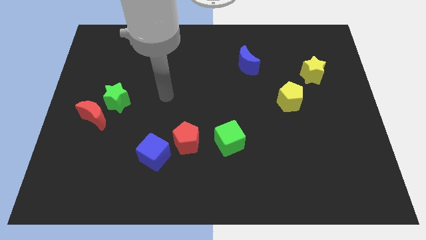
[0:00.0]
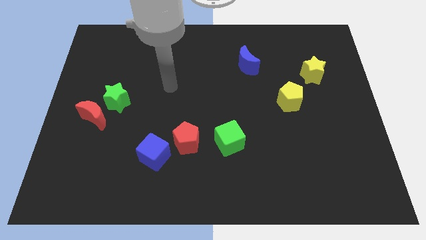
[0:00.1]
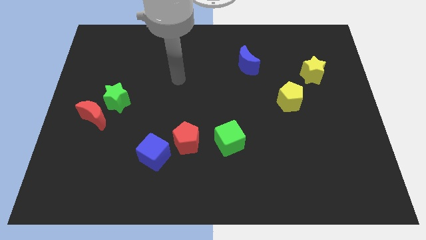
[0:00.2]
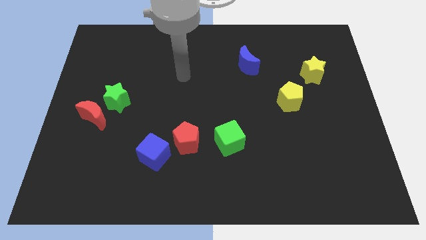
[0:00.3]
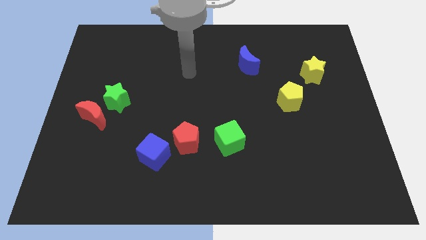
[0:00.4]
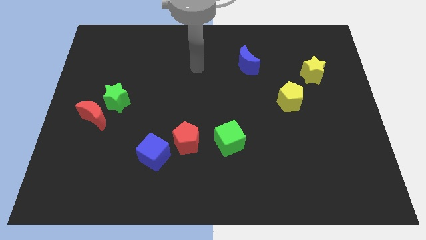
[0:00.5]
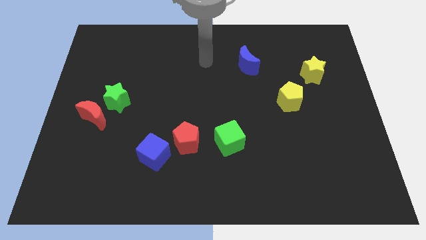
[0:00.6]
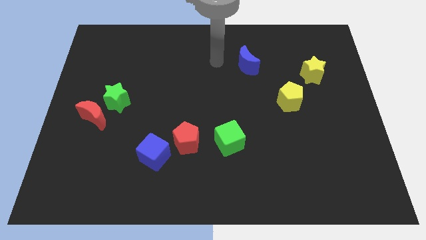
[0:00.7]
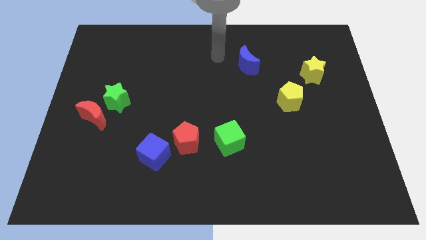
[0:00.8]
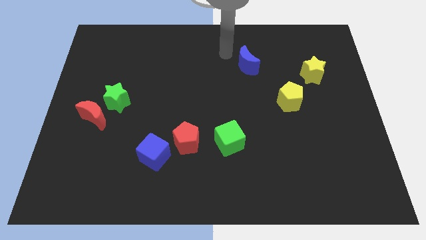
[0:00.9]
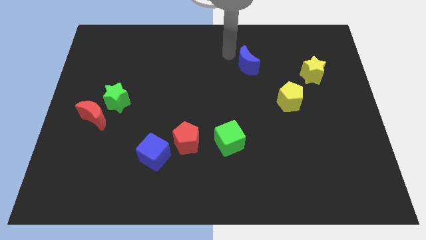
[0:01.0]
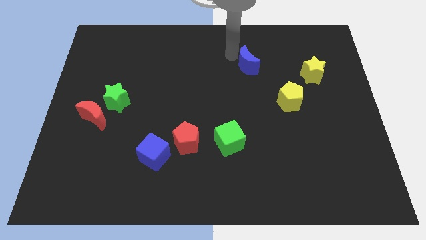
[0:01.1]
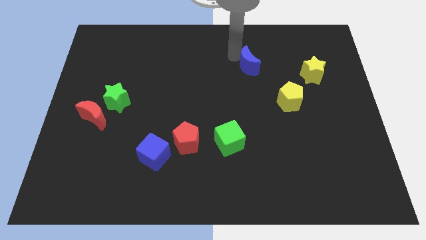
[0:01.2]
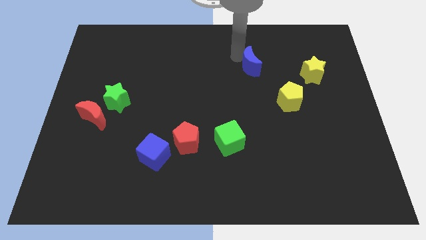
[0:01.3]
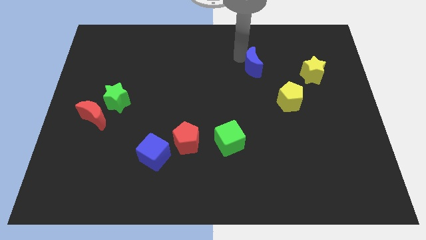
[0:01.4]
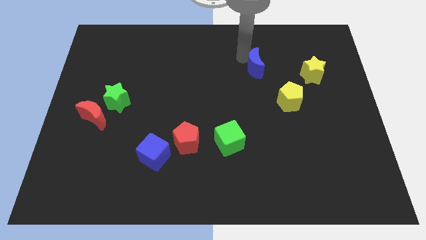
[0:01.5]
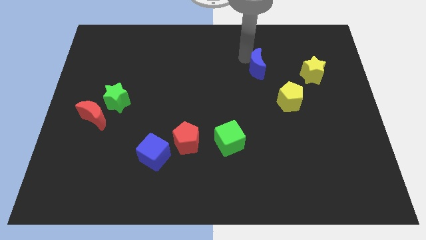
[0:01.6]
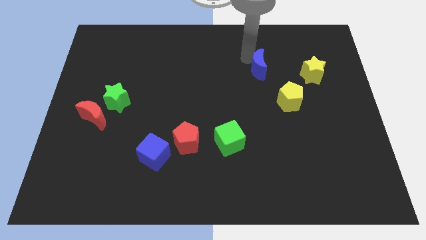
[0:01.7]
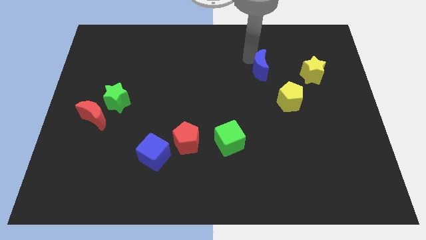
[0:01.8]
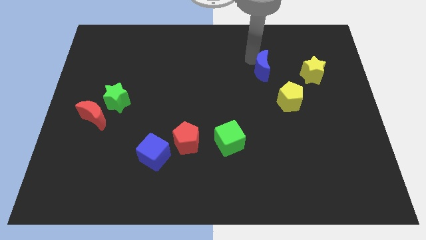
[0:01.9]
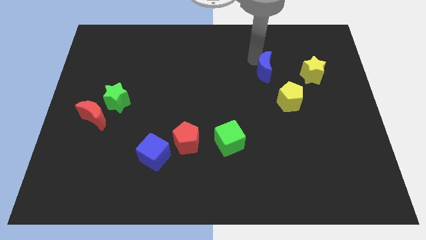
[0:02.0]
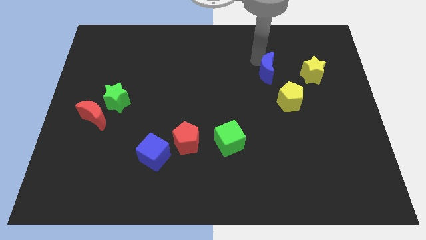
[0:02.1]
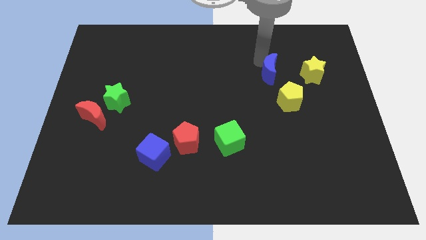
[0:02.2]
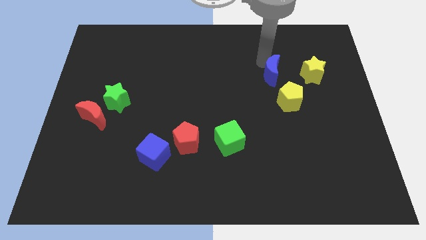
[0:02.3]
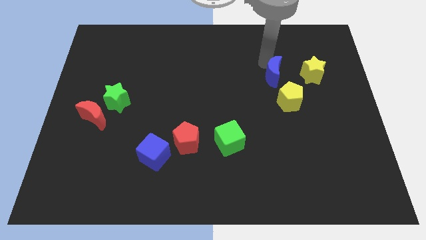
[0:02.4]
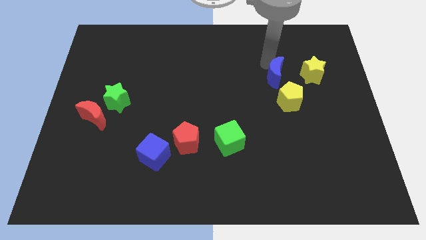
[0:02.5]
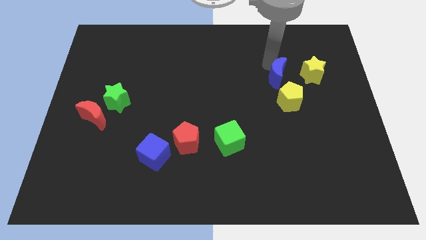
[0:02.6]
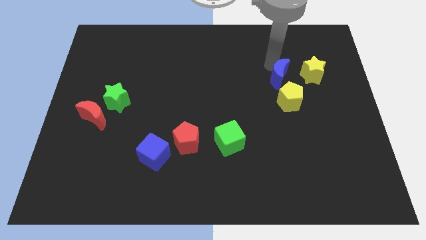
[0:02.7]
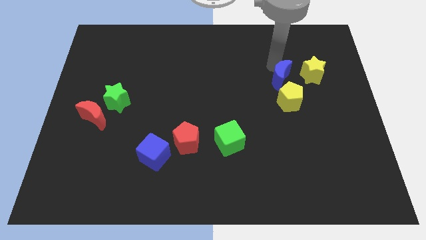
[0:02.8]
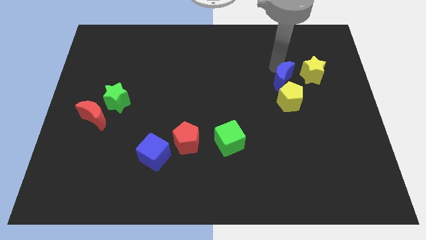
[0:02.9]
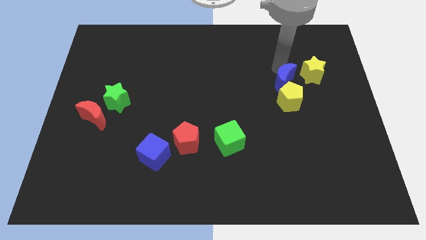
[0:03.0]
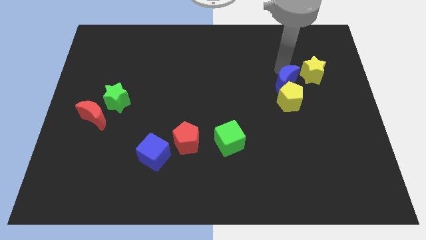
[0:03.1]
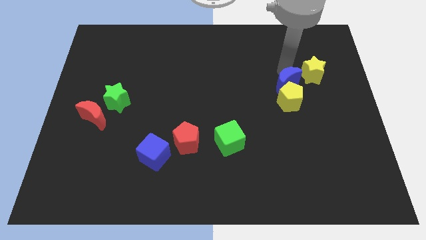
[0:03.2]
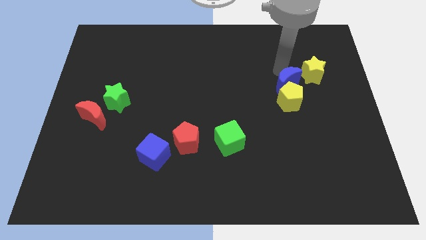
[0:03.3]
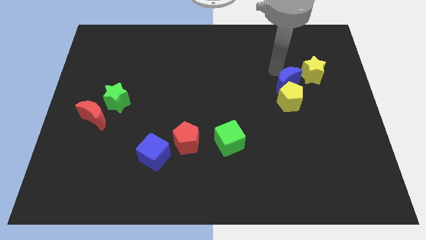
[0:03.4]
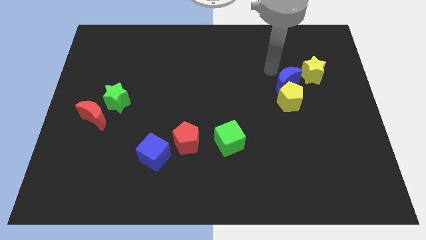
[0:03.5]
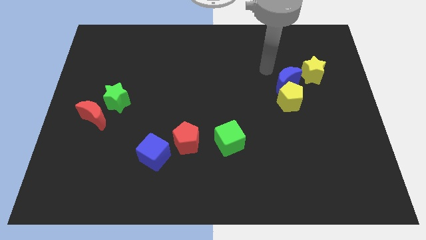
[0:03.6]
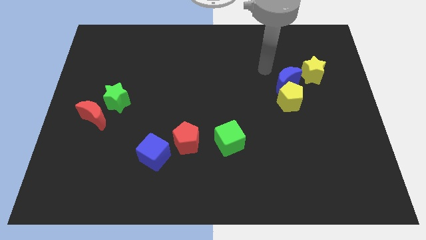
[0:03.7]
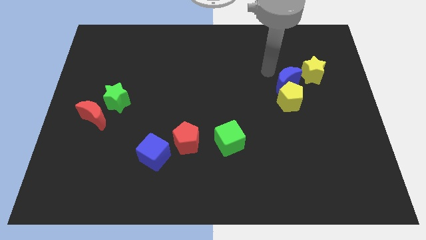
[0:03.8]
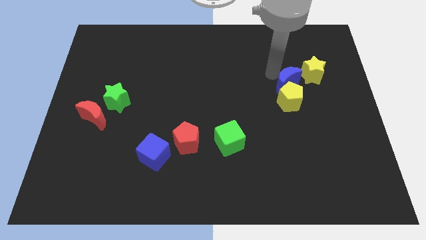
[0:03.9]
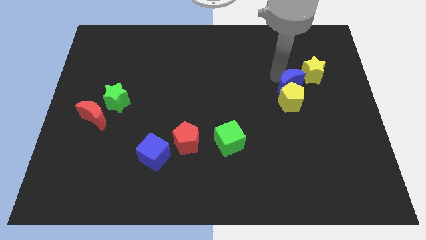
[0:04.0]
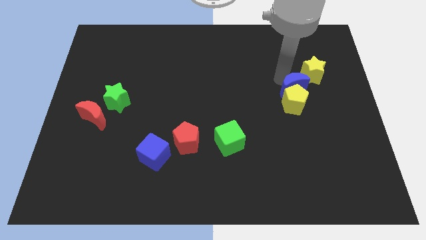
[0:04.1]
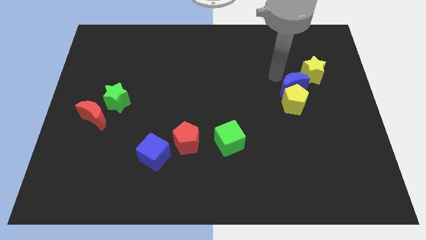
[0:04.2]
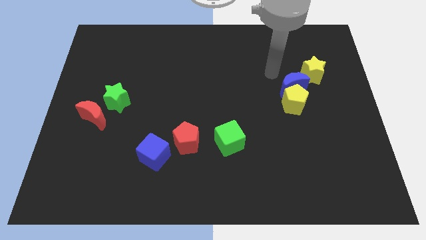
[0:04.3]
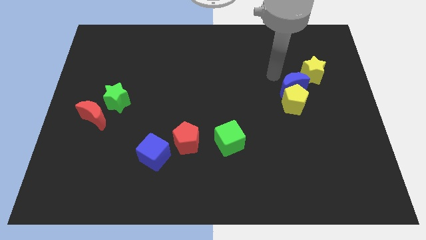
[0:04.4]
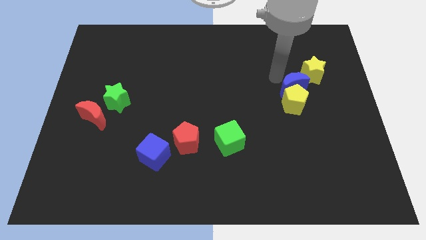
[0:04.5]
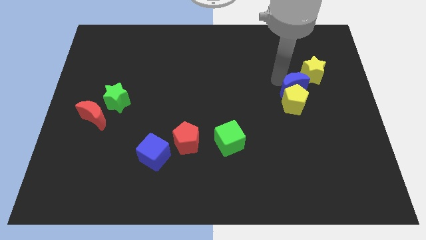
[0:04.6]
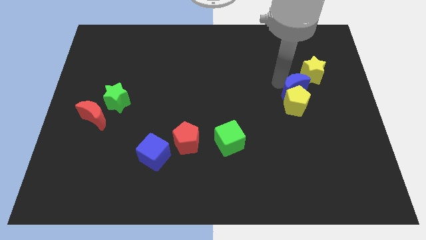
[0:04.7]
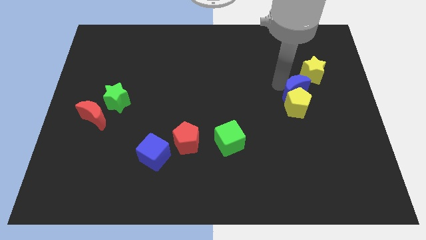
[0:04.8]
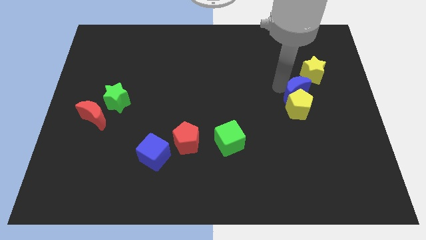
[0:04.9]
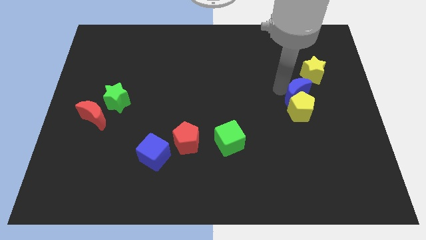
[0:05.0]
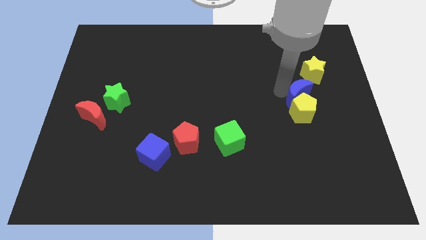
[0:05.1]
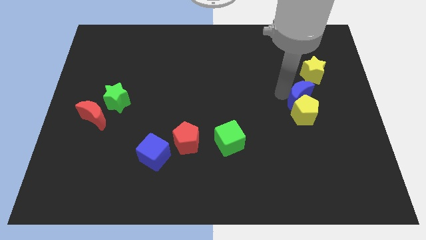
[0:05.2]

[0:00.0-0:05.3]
move the blue moon to the bottom side of the yellow star

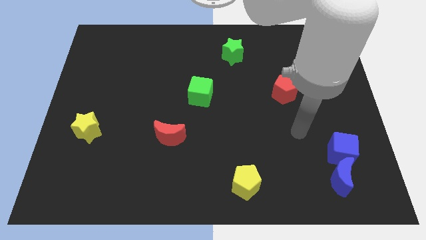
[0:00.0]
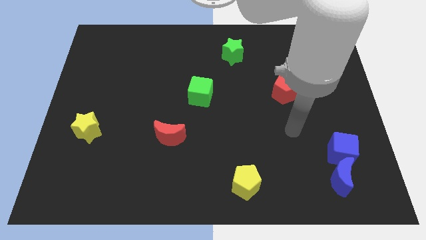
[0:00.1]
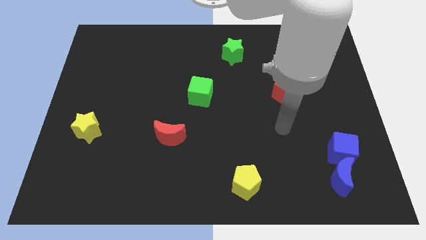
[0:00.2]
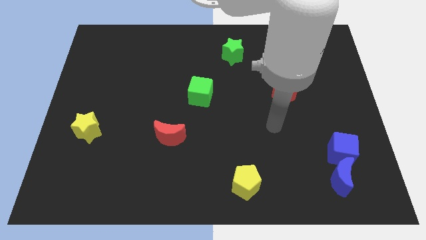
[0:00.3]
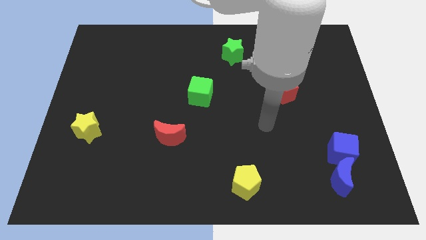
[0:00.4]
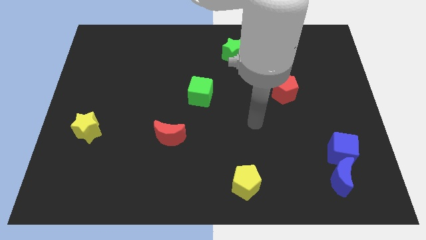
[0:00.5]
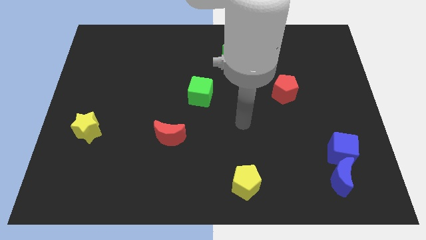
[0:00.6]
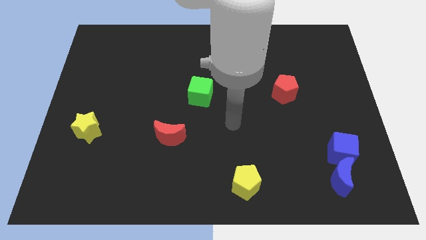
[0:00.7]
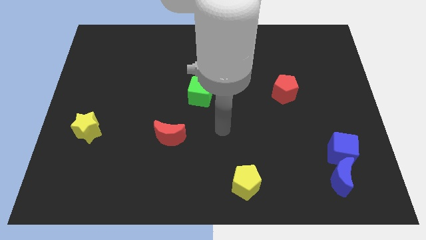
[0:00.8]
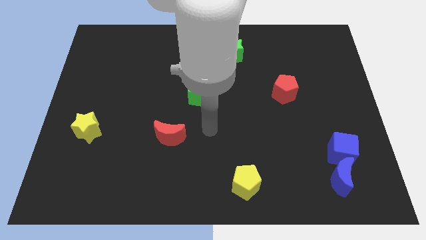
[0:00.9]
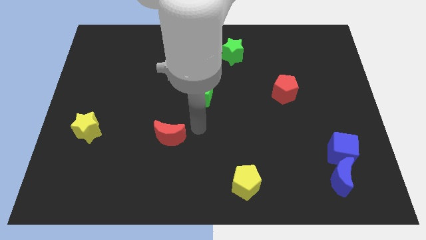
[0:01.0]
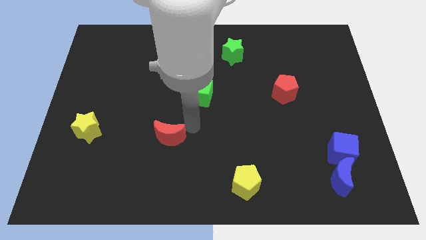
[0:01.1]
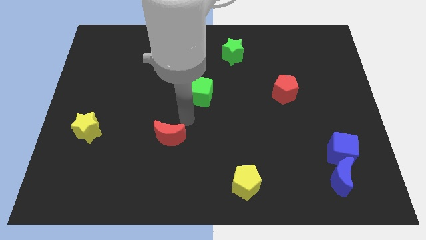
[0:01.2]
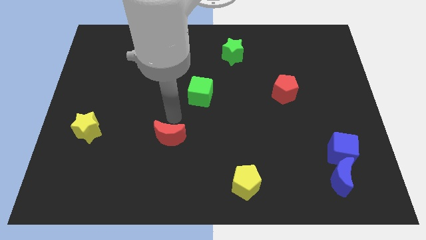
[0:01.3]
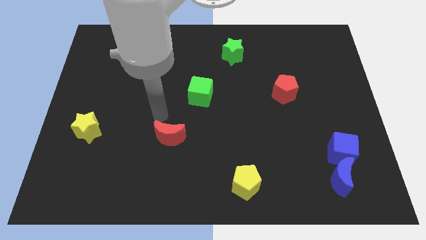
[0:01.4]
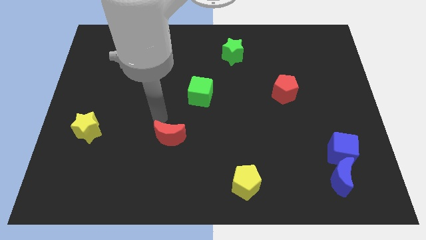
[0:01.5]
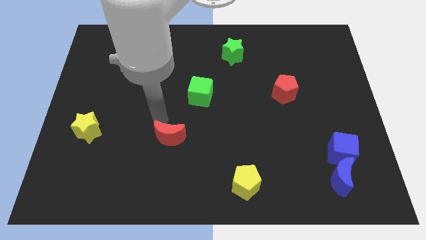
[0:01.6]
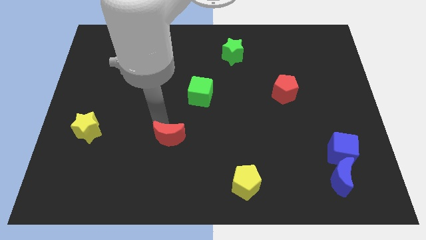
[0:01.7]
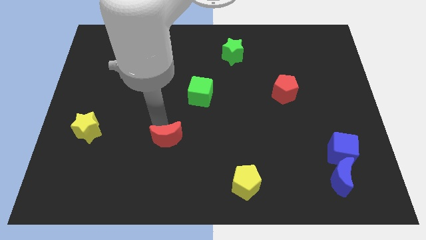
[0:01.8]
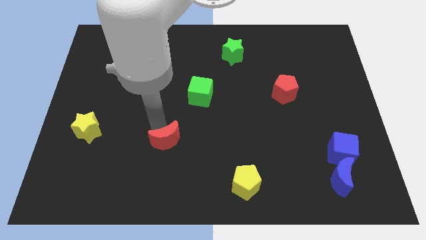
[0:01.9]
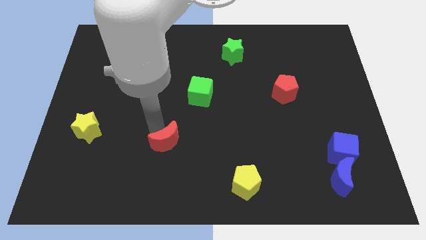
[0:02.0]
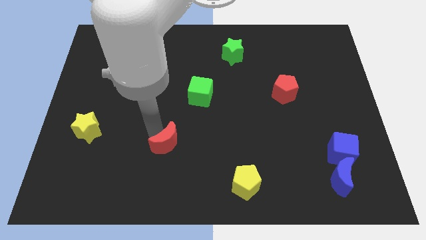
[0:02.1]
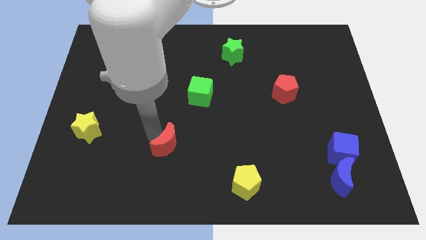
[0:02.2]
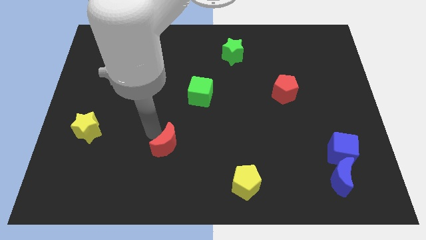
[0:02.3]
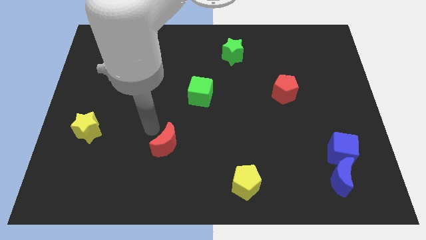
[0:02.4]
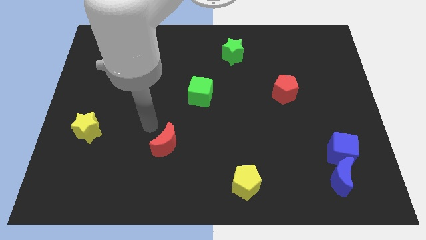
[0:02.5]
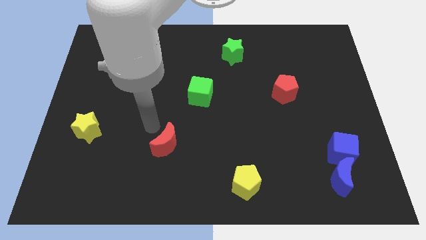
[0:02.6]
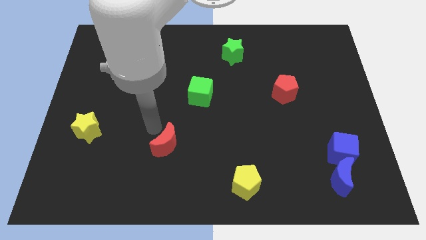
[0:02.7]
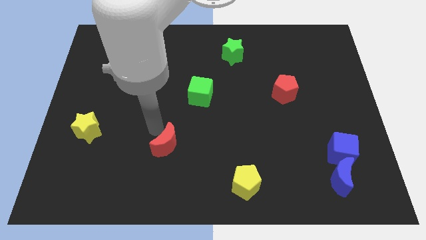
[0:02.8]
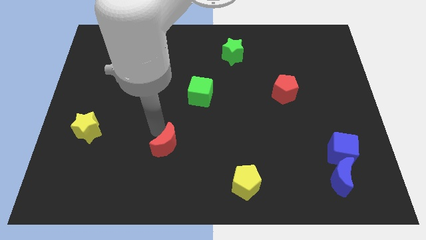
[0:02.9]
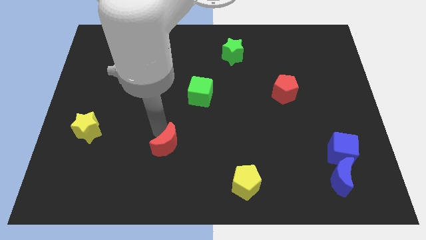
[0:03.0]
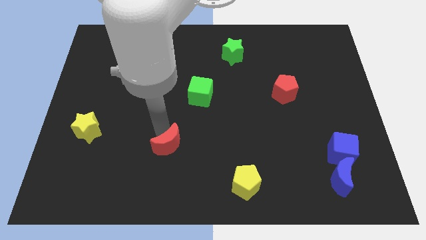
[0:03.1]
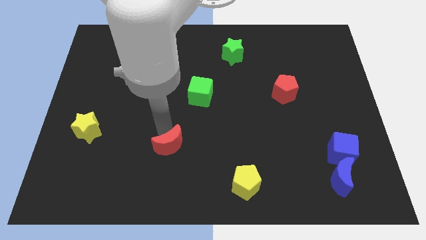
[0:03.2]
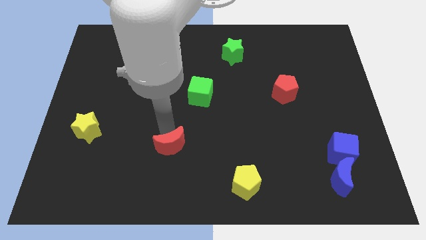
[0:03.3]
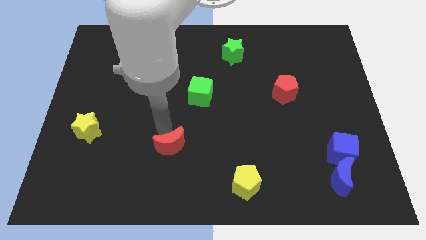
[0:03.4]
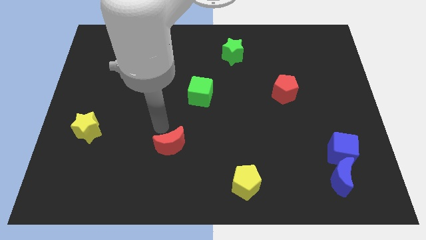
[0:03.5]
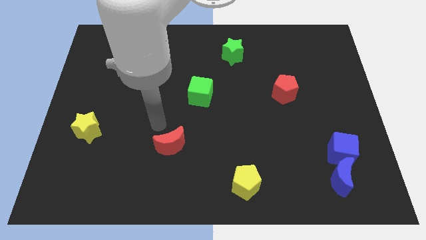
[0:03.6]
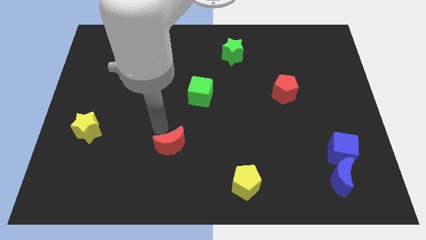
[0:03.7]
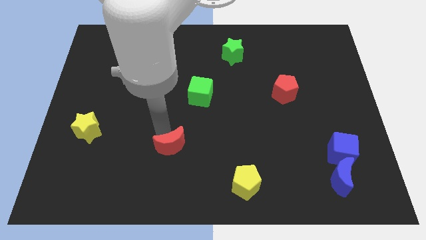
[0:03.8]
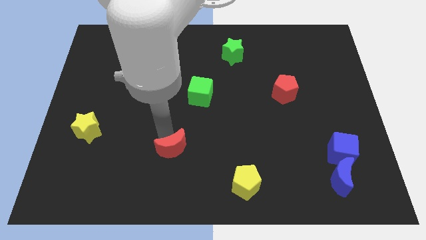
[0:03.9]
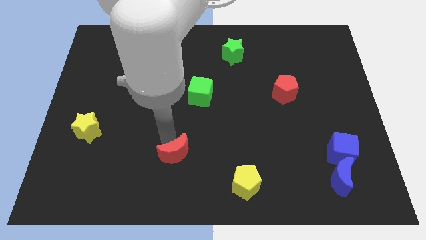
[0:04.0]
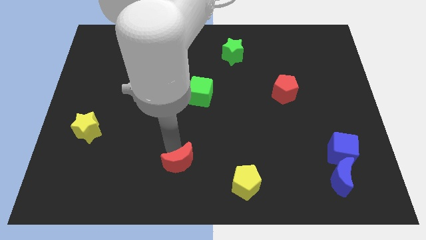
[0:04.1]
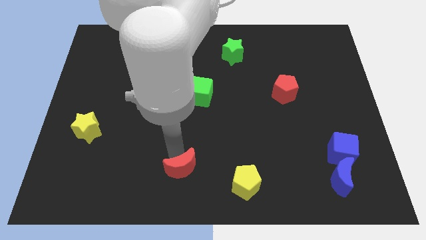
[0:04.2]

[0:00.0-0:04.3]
move the red moon to the left side of the yellow pentagon
